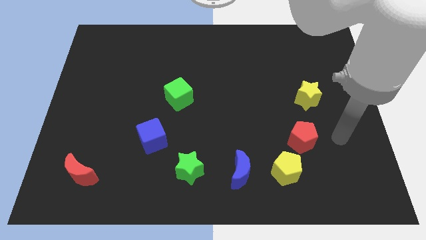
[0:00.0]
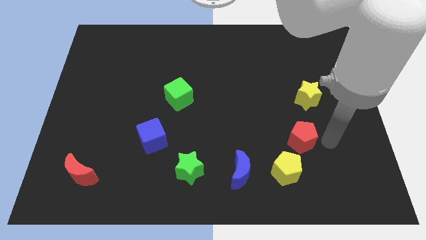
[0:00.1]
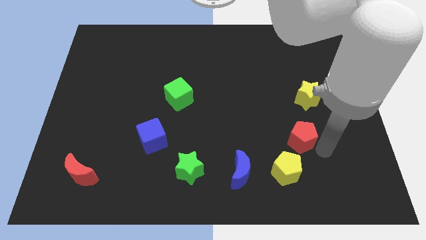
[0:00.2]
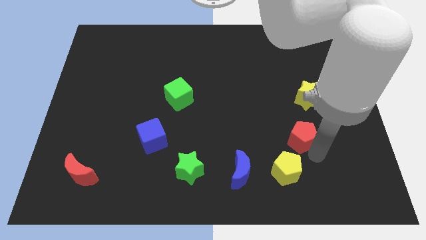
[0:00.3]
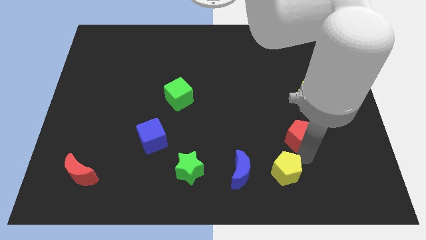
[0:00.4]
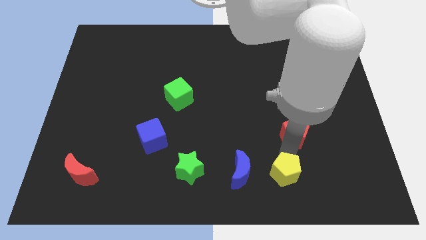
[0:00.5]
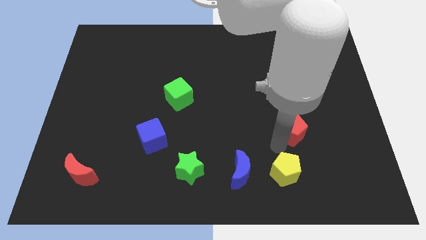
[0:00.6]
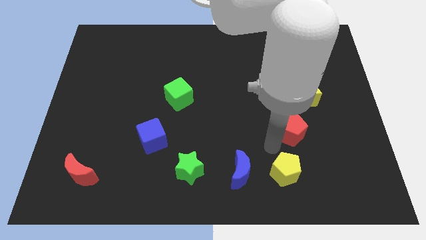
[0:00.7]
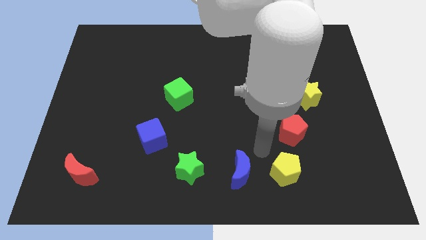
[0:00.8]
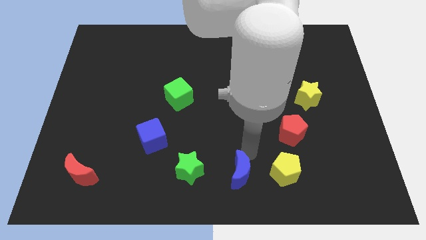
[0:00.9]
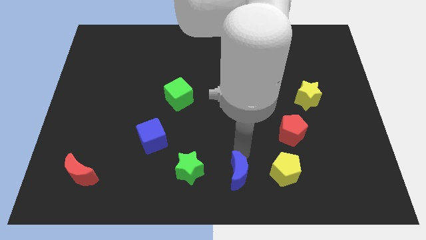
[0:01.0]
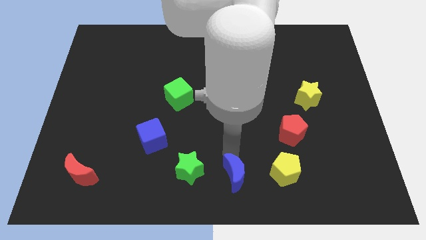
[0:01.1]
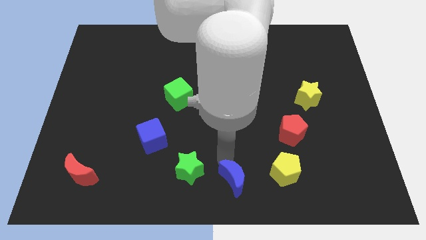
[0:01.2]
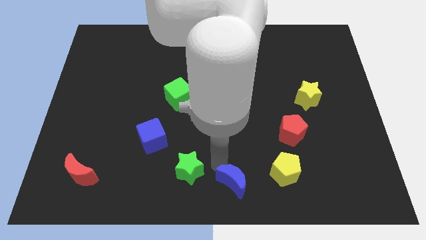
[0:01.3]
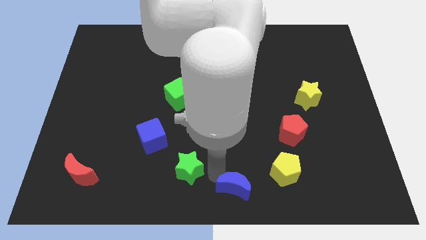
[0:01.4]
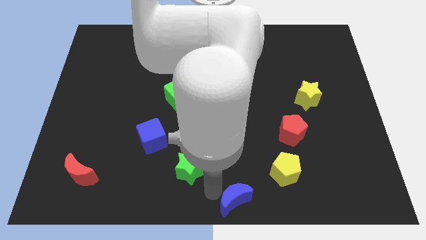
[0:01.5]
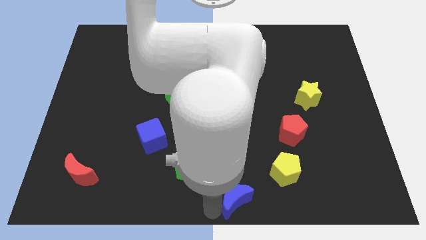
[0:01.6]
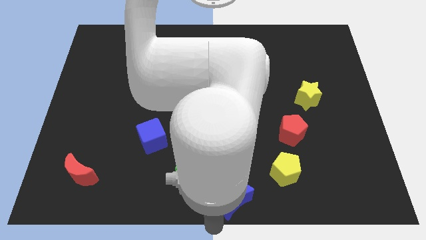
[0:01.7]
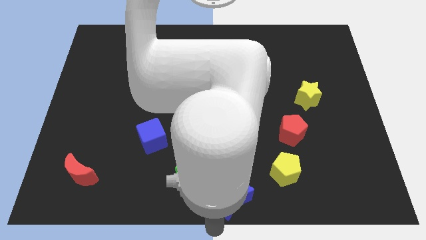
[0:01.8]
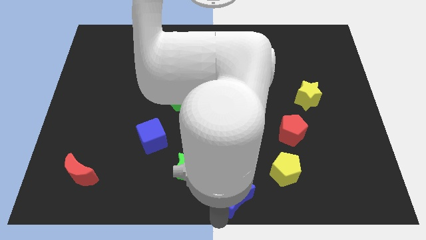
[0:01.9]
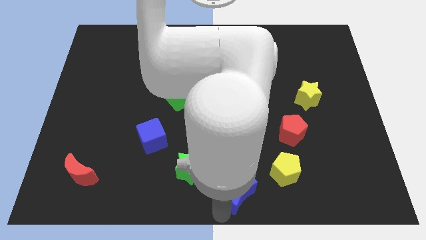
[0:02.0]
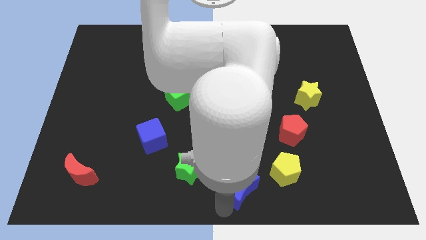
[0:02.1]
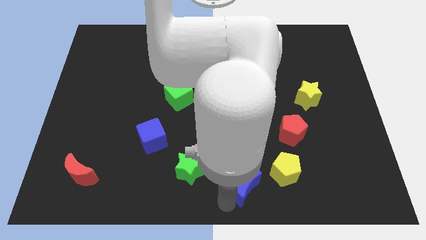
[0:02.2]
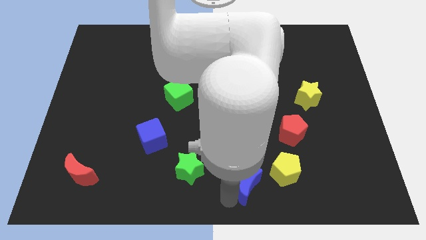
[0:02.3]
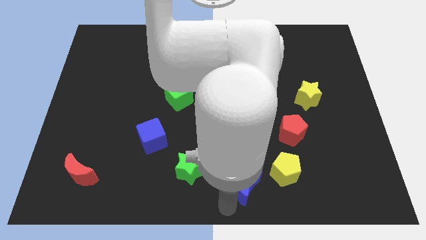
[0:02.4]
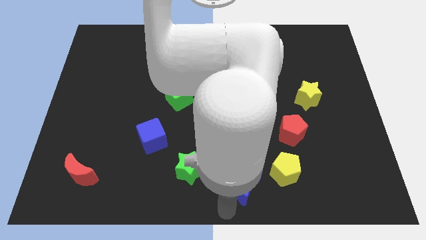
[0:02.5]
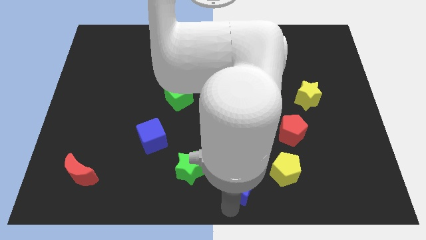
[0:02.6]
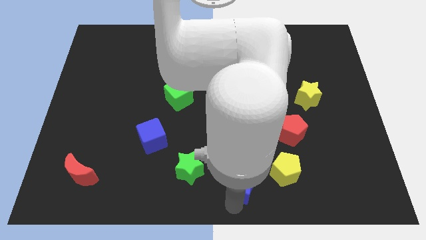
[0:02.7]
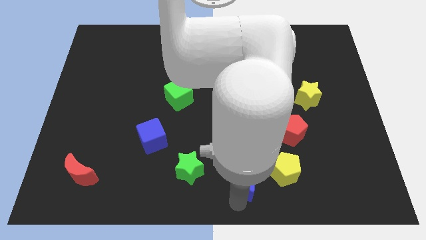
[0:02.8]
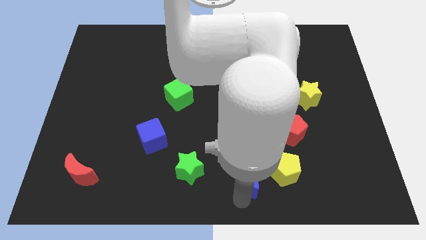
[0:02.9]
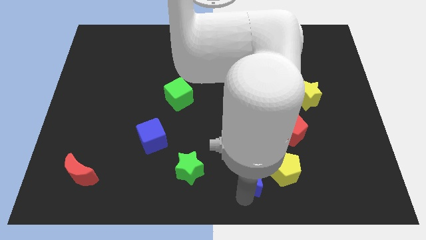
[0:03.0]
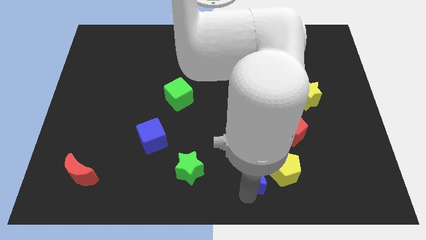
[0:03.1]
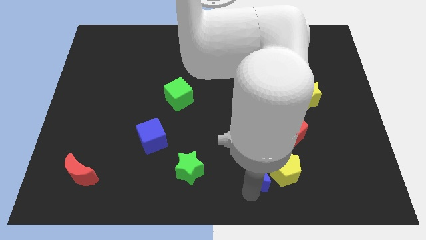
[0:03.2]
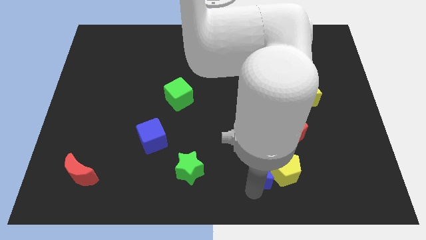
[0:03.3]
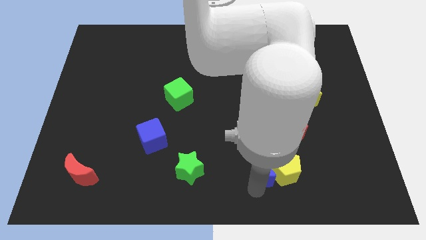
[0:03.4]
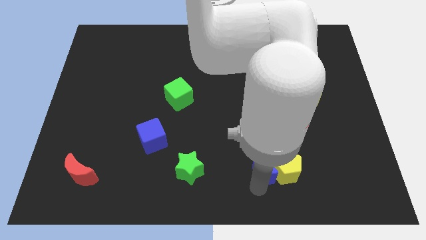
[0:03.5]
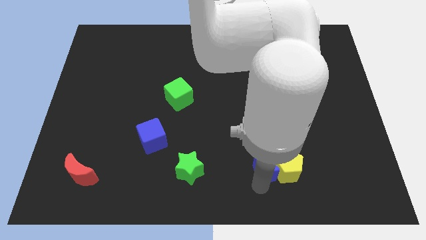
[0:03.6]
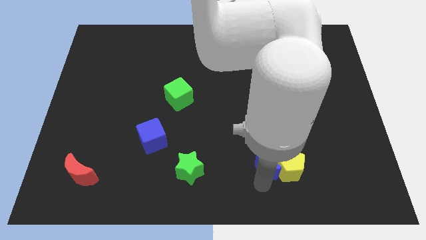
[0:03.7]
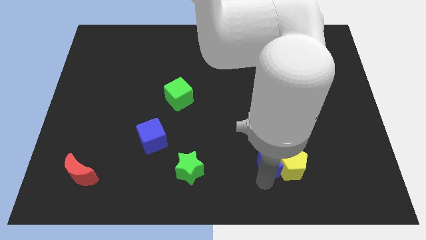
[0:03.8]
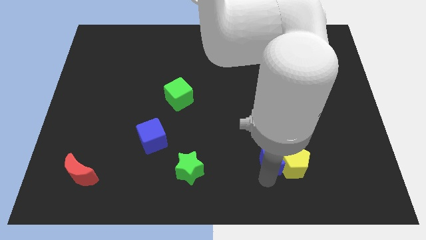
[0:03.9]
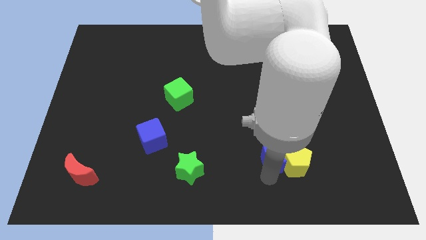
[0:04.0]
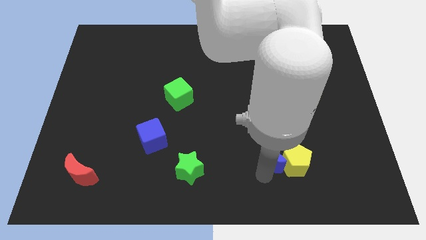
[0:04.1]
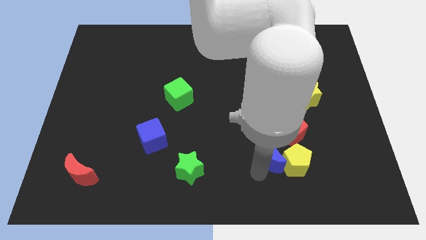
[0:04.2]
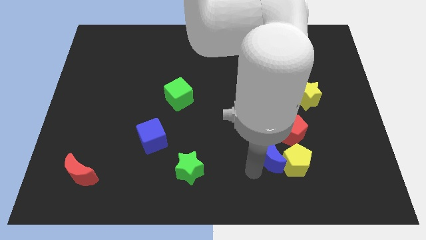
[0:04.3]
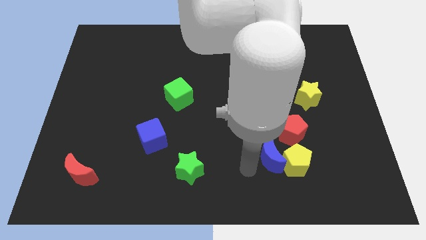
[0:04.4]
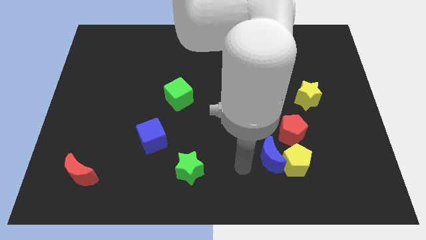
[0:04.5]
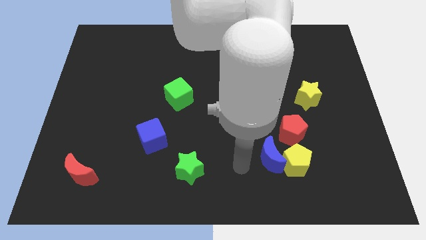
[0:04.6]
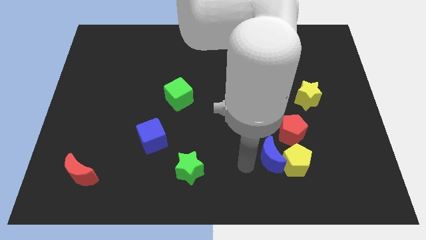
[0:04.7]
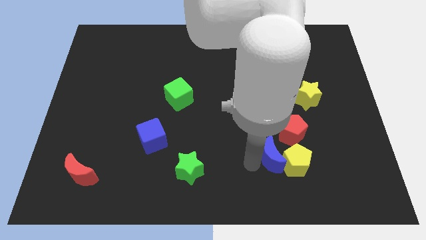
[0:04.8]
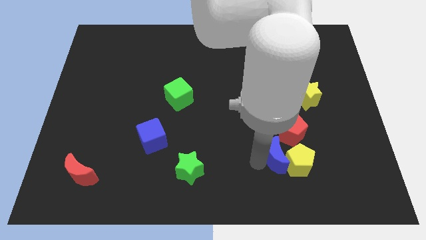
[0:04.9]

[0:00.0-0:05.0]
push the blue moon a bit right

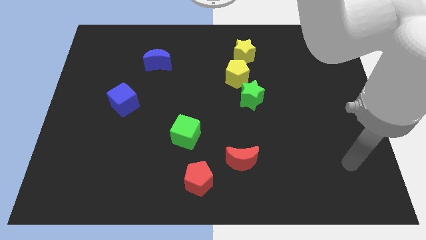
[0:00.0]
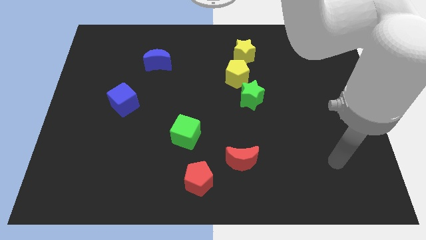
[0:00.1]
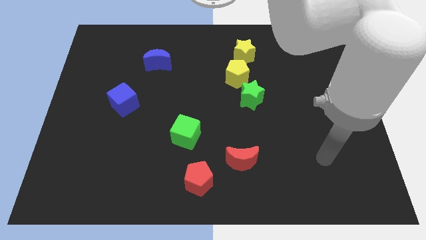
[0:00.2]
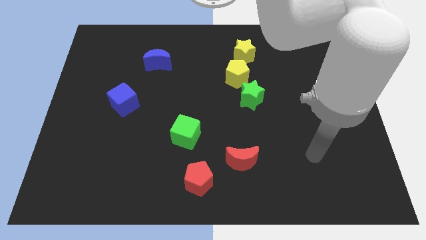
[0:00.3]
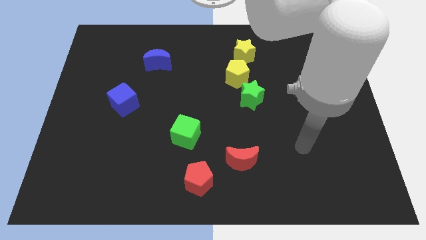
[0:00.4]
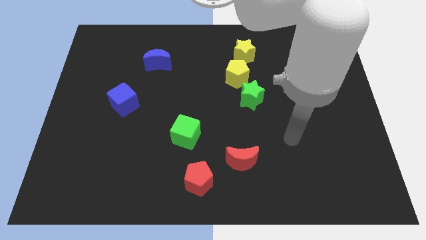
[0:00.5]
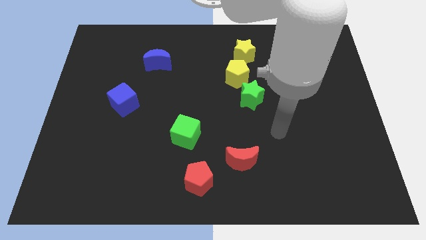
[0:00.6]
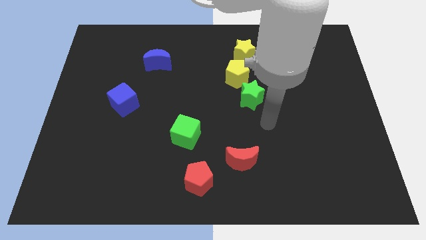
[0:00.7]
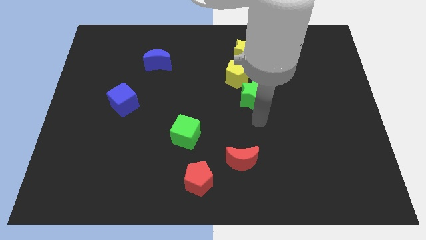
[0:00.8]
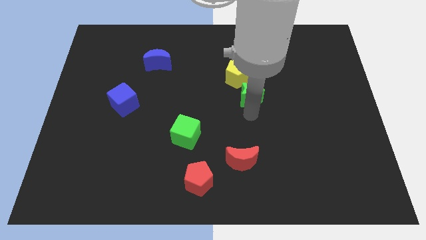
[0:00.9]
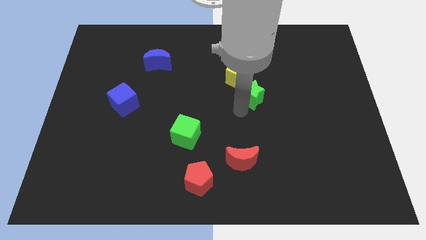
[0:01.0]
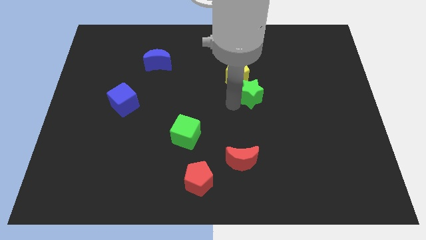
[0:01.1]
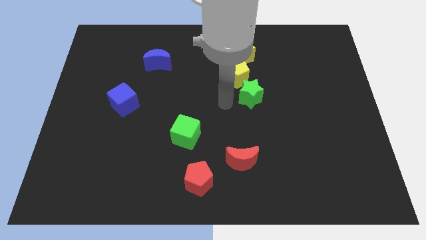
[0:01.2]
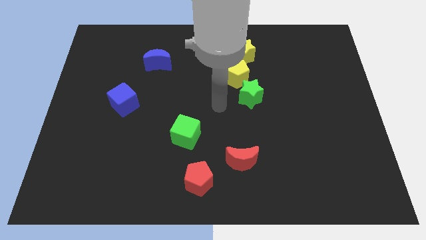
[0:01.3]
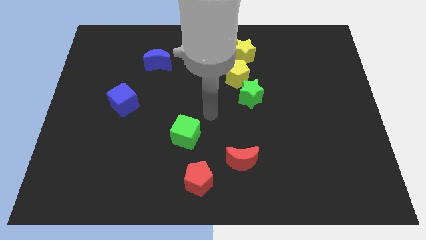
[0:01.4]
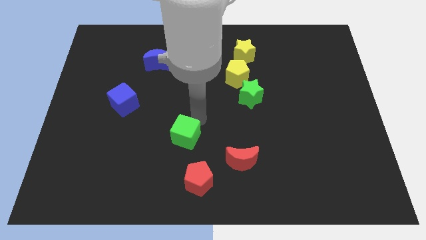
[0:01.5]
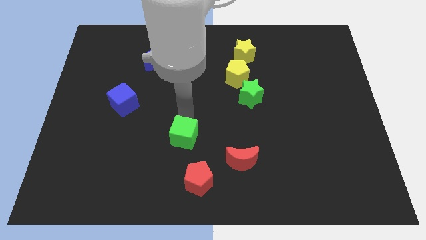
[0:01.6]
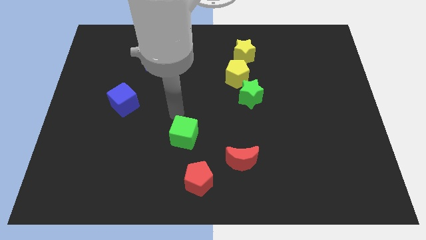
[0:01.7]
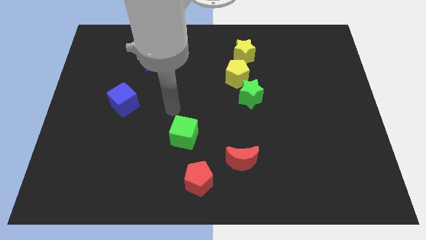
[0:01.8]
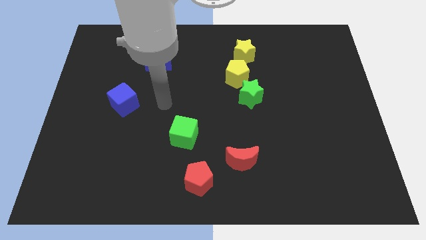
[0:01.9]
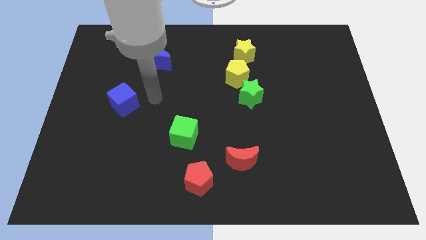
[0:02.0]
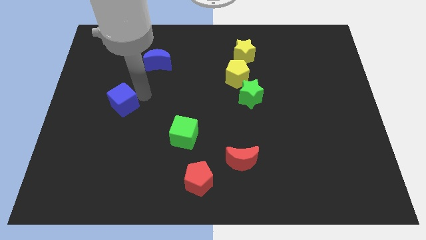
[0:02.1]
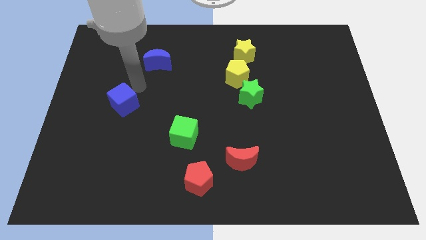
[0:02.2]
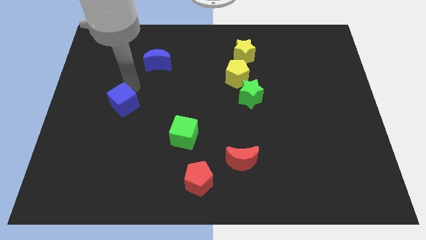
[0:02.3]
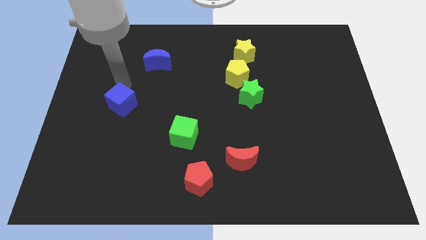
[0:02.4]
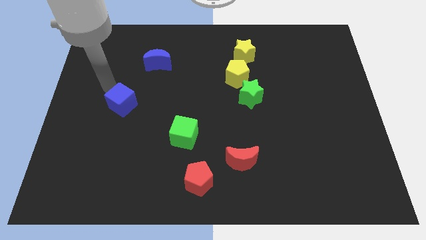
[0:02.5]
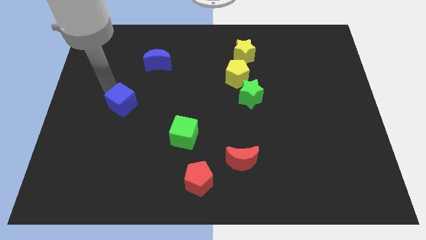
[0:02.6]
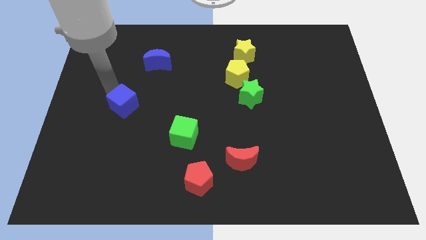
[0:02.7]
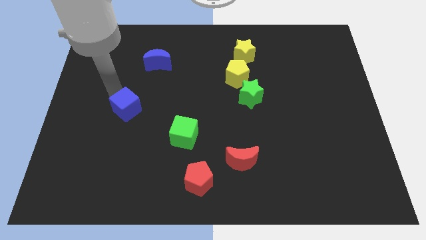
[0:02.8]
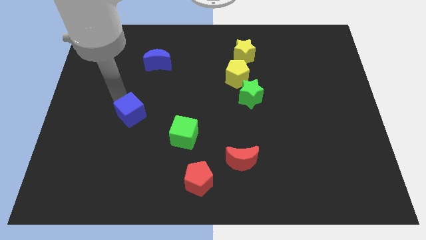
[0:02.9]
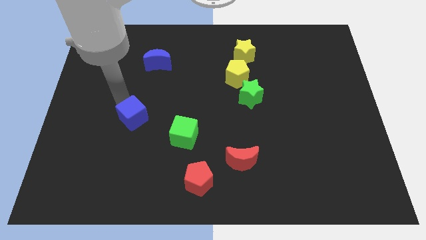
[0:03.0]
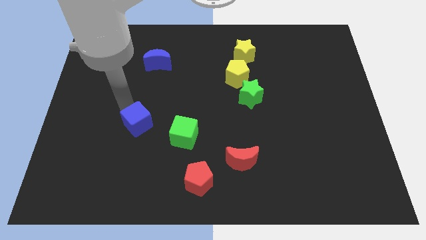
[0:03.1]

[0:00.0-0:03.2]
slide the blue cube slightly downwards and to the right diagonally
